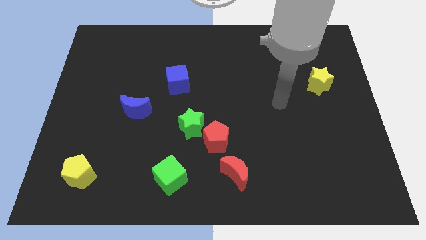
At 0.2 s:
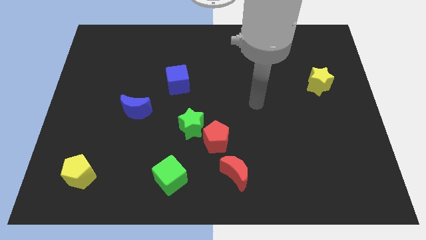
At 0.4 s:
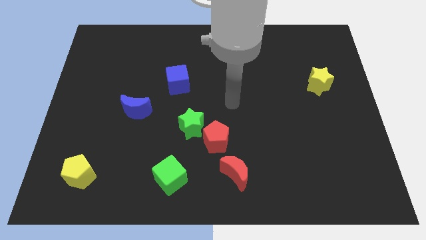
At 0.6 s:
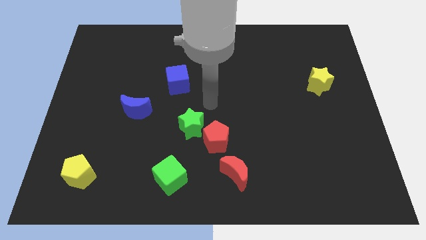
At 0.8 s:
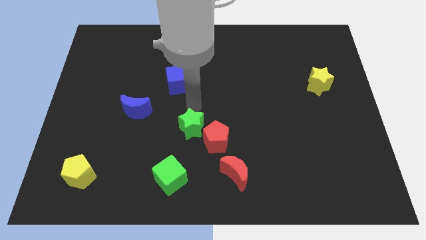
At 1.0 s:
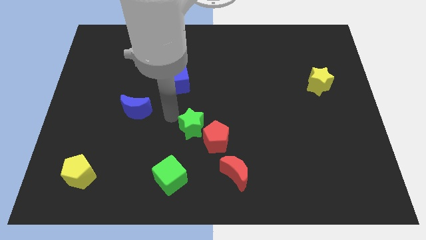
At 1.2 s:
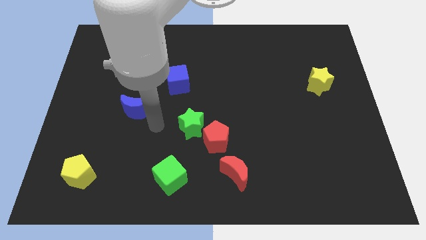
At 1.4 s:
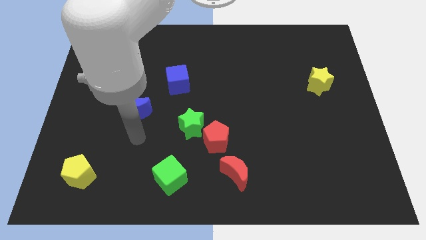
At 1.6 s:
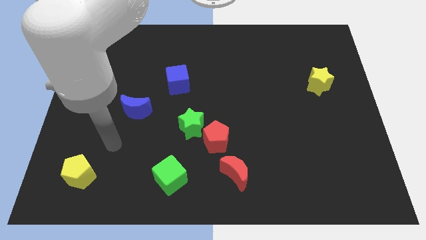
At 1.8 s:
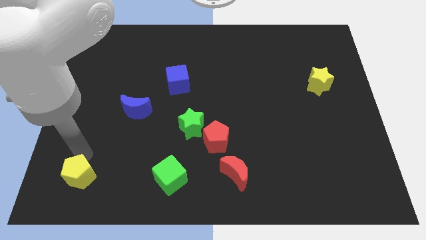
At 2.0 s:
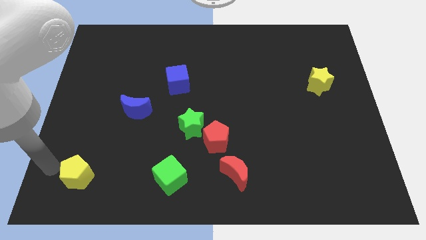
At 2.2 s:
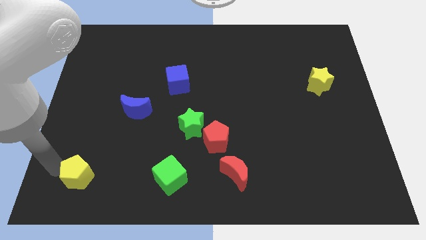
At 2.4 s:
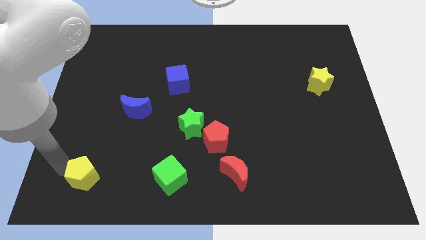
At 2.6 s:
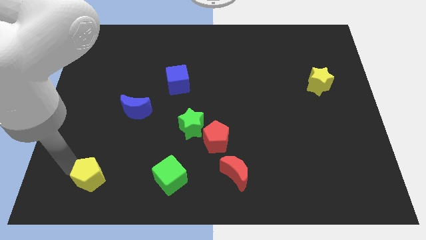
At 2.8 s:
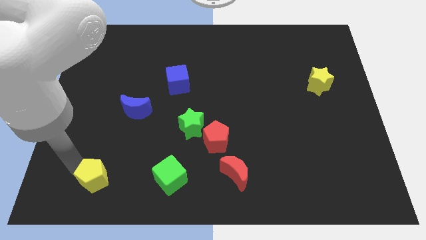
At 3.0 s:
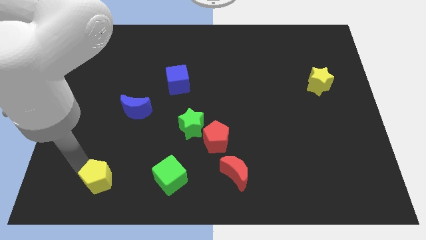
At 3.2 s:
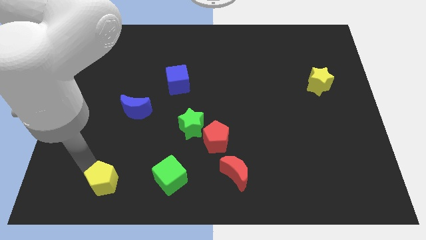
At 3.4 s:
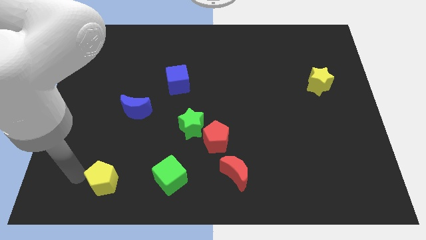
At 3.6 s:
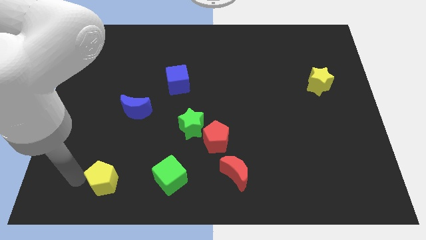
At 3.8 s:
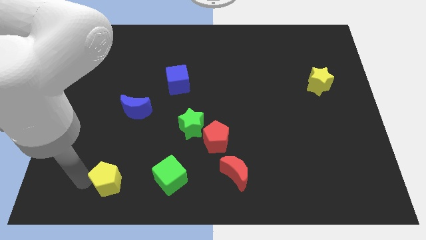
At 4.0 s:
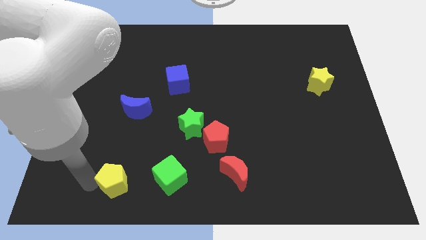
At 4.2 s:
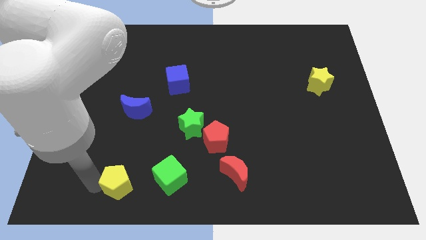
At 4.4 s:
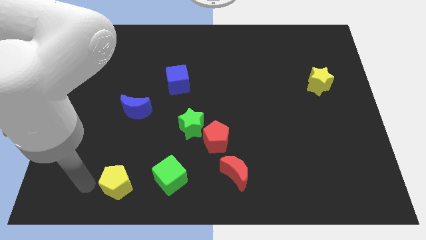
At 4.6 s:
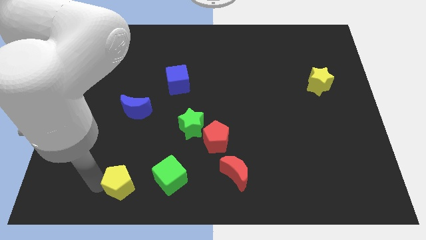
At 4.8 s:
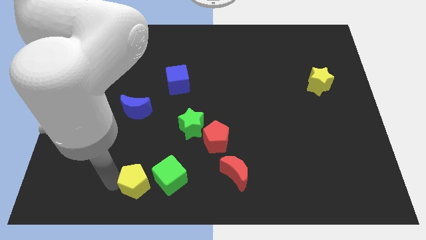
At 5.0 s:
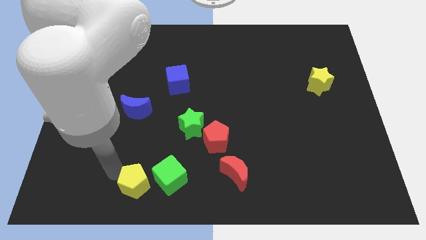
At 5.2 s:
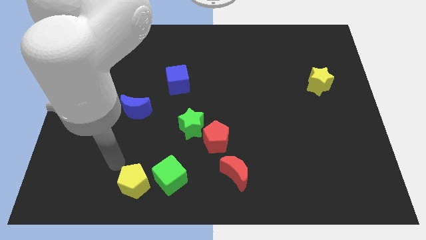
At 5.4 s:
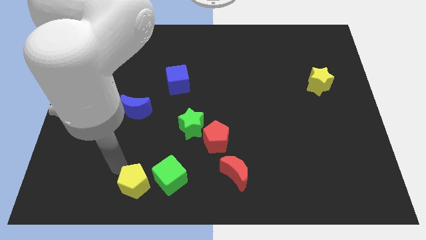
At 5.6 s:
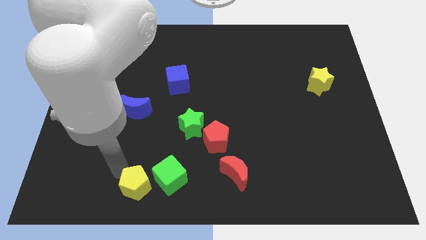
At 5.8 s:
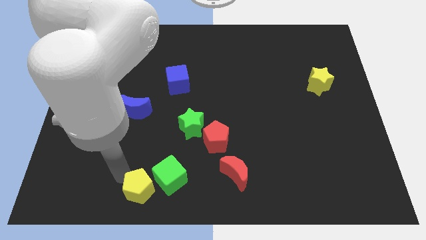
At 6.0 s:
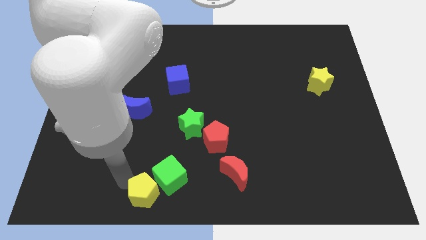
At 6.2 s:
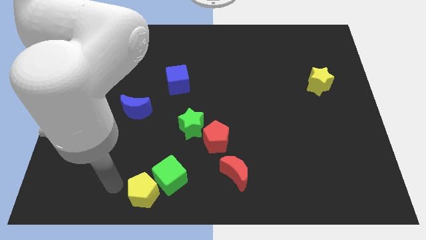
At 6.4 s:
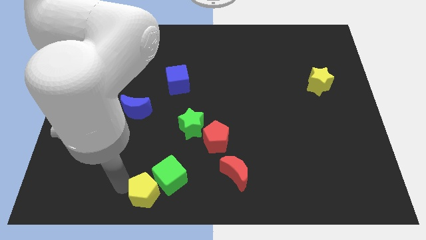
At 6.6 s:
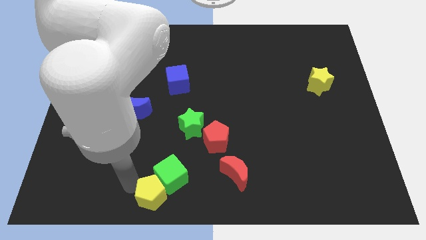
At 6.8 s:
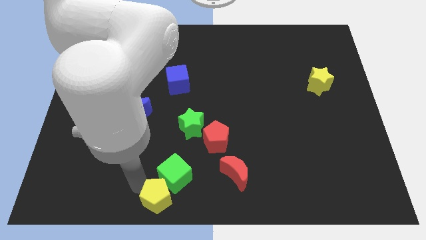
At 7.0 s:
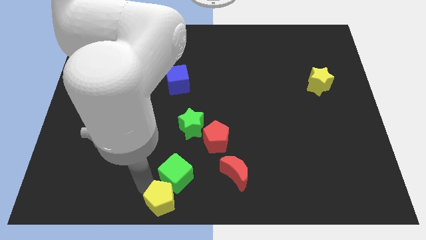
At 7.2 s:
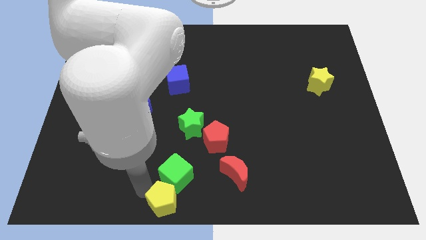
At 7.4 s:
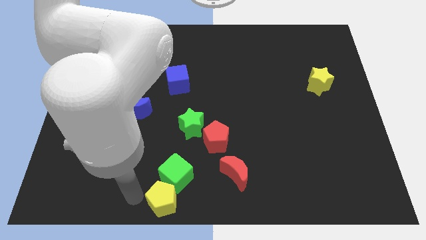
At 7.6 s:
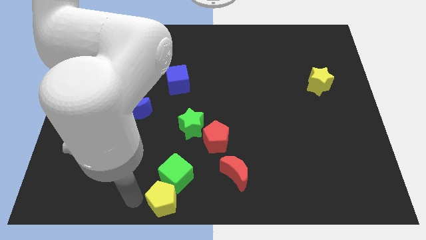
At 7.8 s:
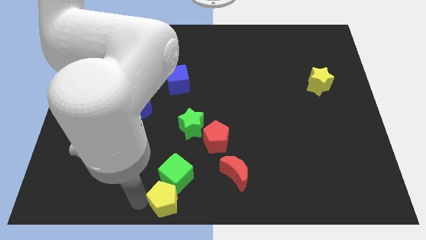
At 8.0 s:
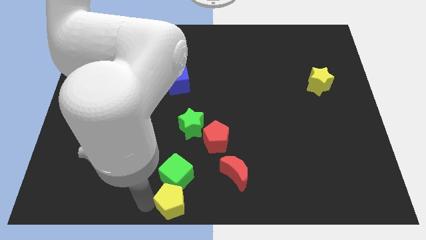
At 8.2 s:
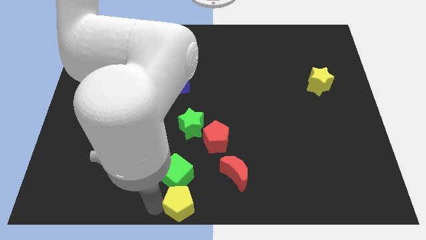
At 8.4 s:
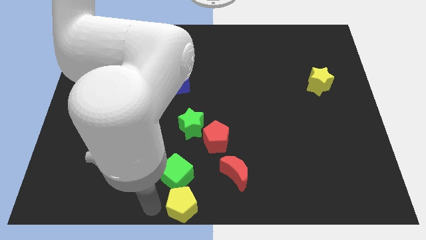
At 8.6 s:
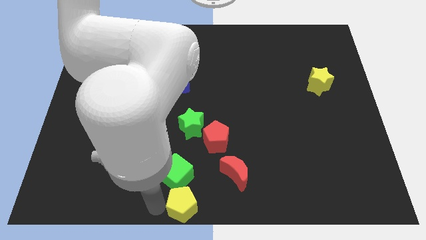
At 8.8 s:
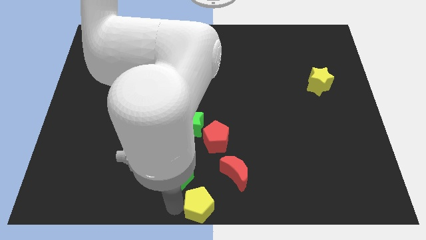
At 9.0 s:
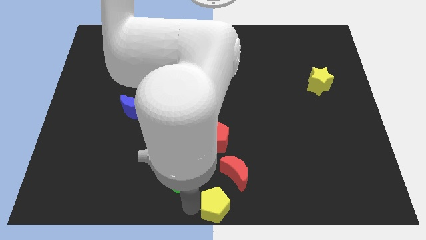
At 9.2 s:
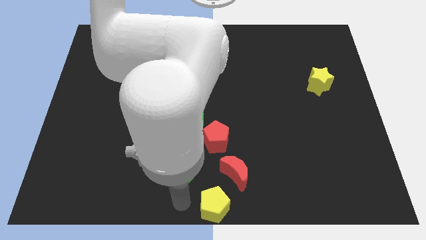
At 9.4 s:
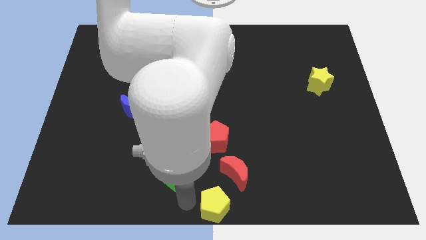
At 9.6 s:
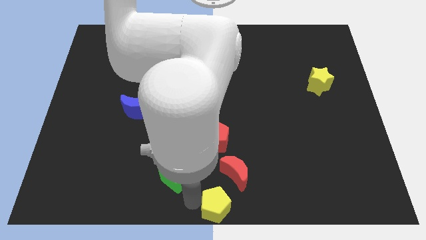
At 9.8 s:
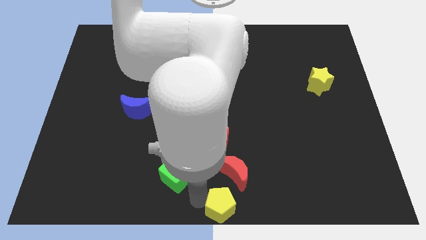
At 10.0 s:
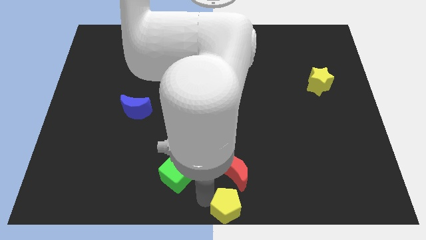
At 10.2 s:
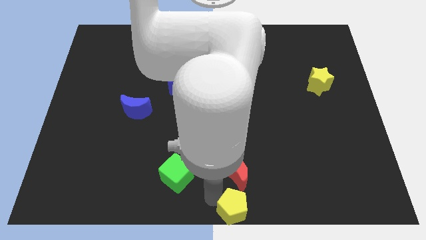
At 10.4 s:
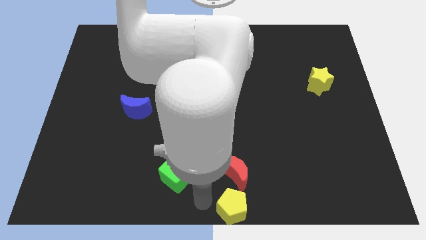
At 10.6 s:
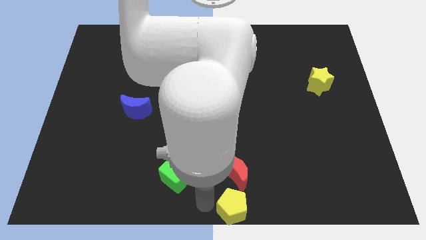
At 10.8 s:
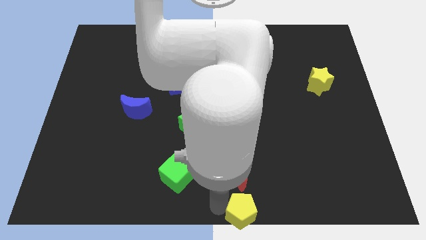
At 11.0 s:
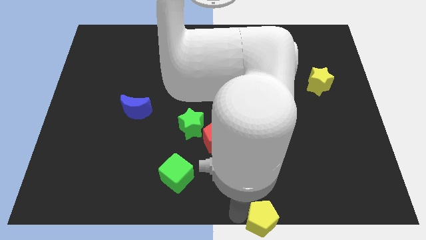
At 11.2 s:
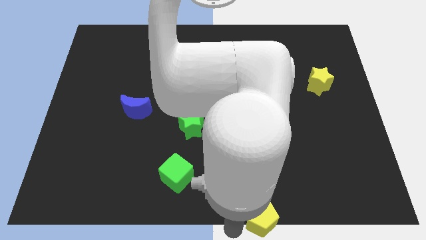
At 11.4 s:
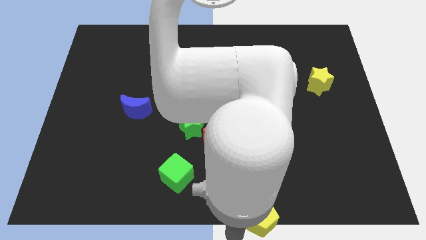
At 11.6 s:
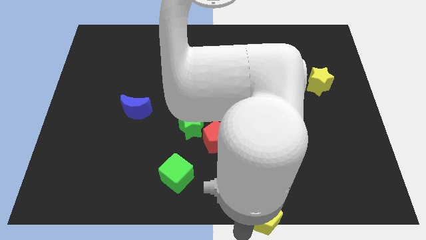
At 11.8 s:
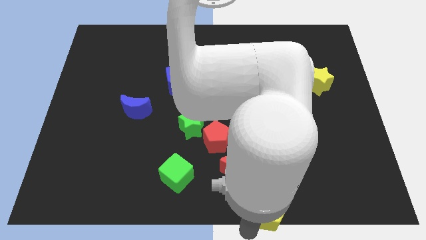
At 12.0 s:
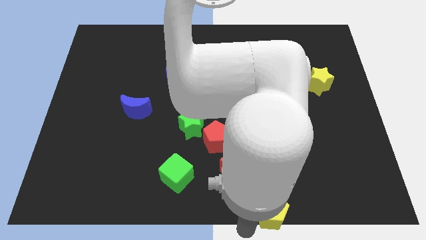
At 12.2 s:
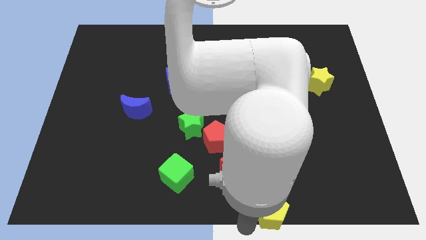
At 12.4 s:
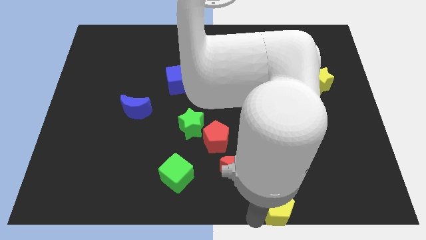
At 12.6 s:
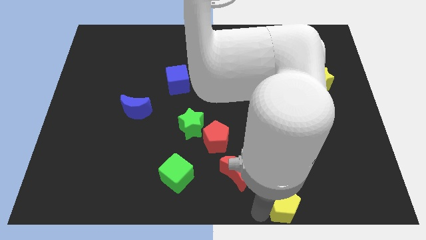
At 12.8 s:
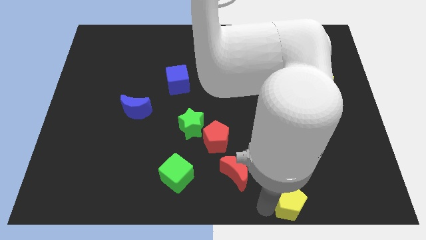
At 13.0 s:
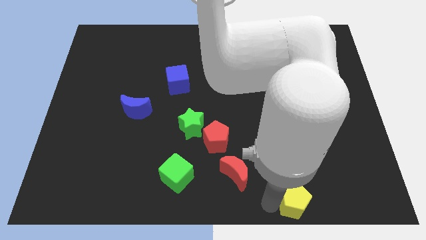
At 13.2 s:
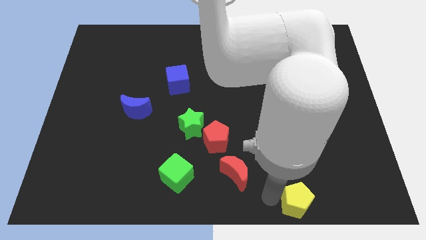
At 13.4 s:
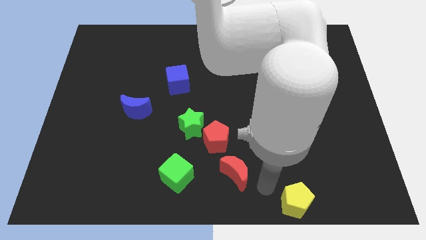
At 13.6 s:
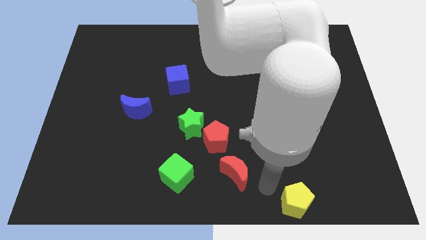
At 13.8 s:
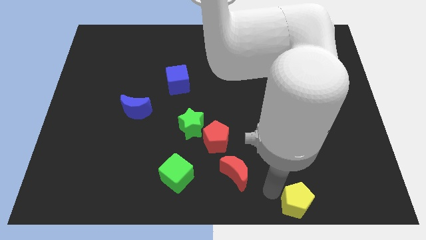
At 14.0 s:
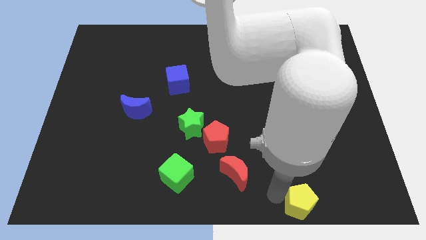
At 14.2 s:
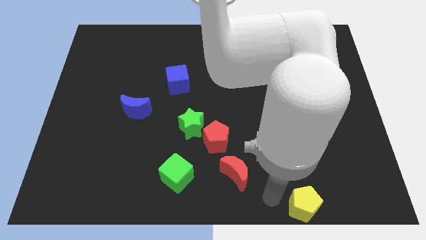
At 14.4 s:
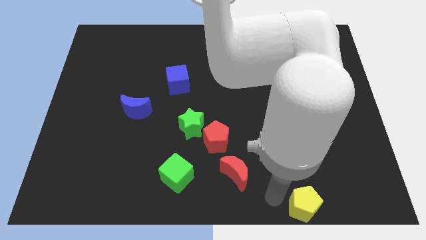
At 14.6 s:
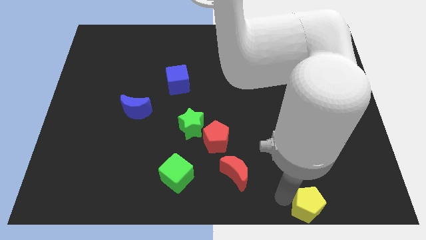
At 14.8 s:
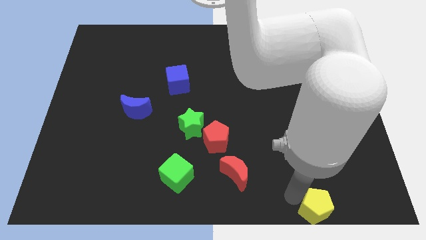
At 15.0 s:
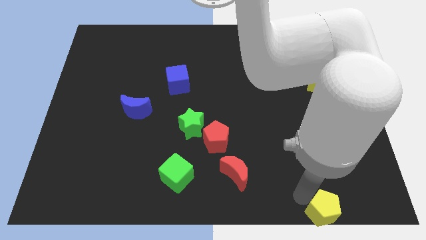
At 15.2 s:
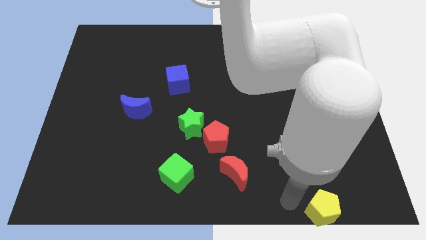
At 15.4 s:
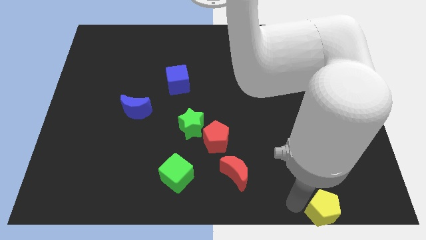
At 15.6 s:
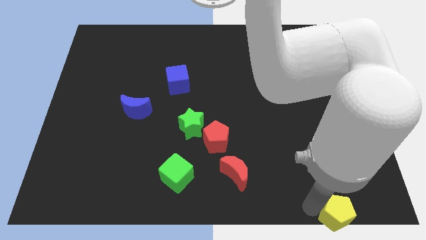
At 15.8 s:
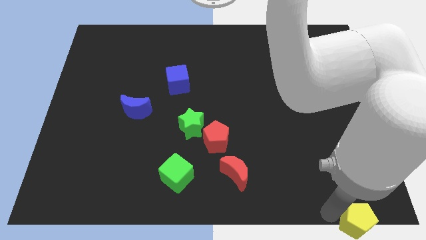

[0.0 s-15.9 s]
move the yellow pentagon to the bottom right
